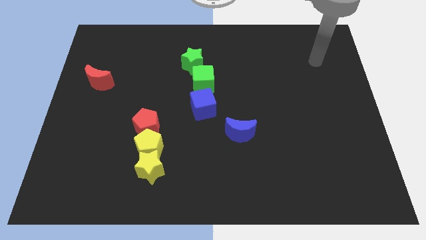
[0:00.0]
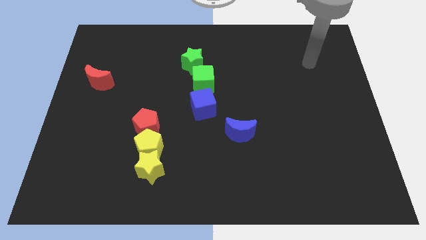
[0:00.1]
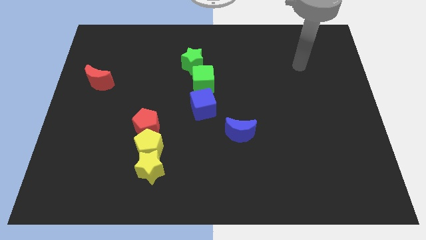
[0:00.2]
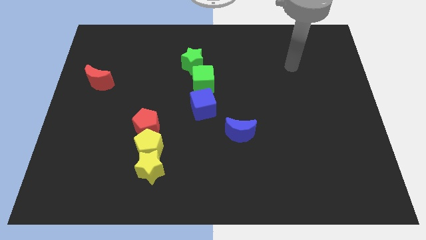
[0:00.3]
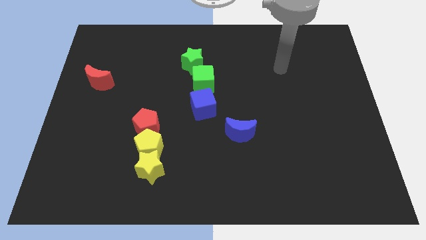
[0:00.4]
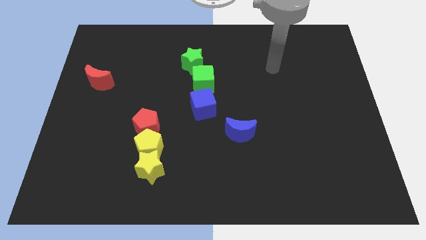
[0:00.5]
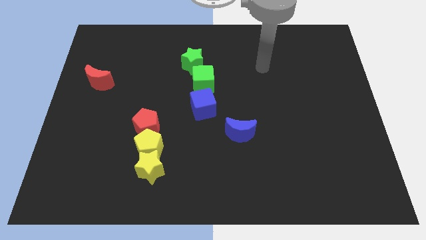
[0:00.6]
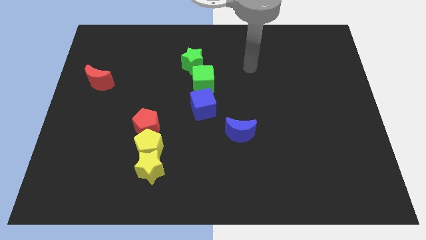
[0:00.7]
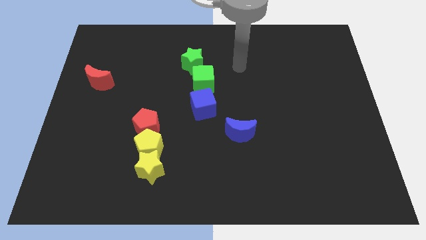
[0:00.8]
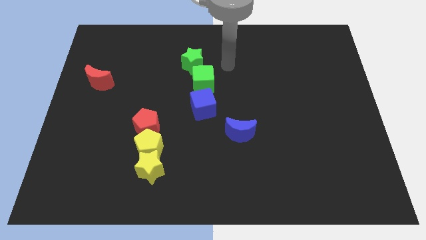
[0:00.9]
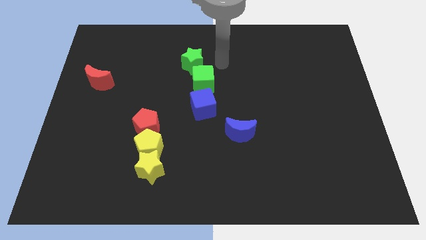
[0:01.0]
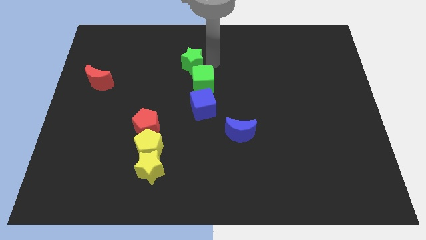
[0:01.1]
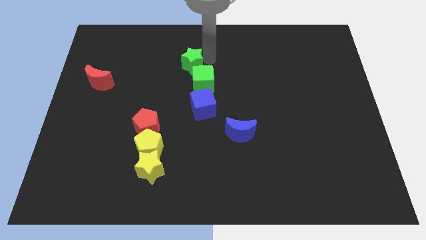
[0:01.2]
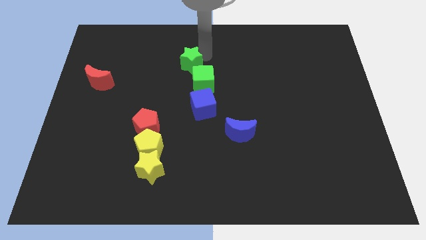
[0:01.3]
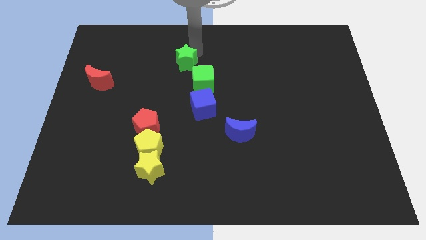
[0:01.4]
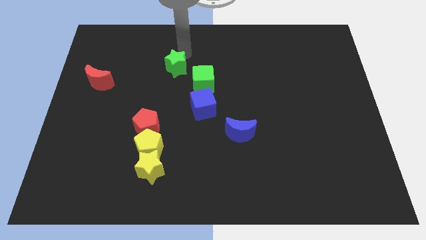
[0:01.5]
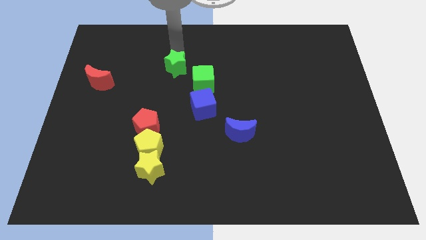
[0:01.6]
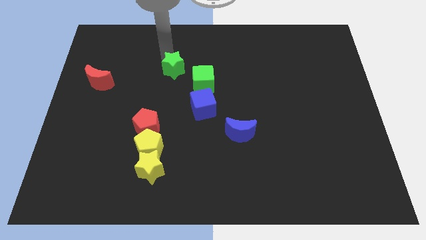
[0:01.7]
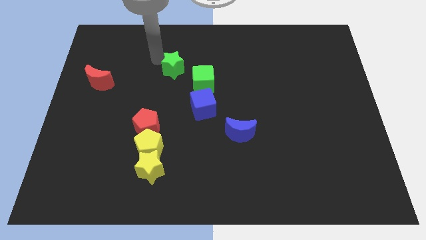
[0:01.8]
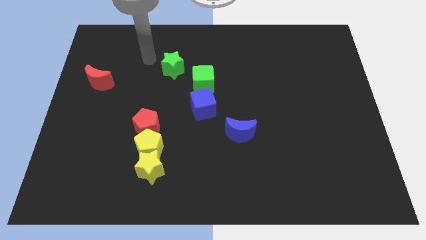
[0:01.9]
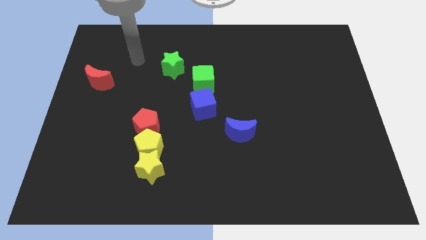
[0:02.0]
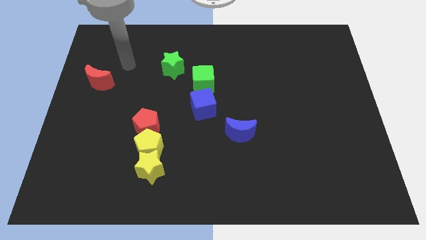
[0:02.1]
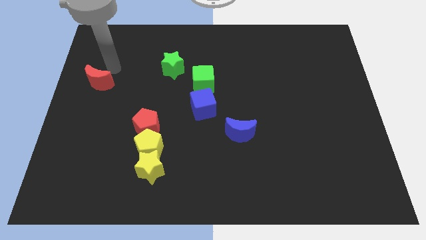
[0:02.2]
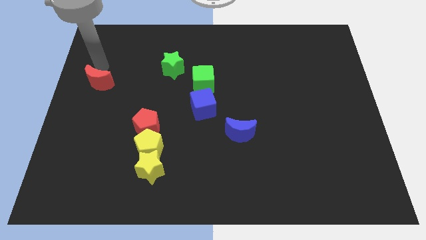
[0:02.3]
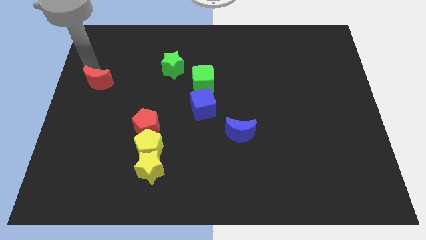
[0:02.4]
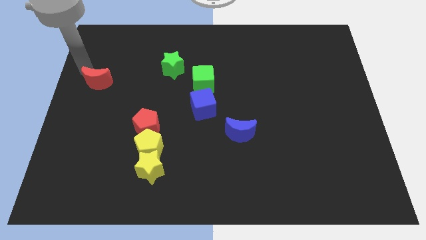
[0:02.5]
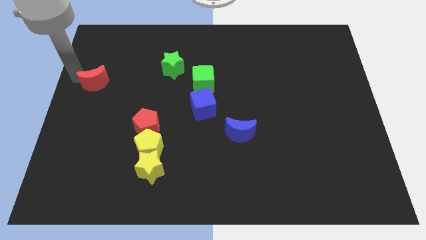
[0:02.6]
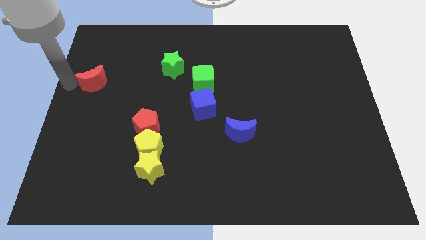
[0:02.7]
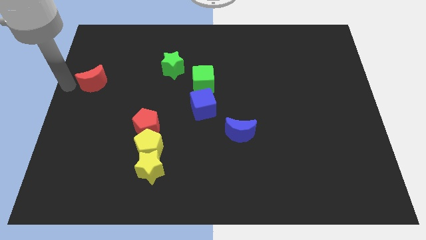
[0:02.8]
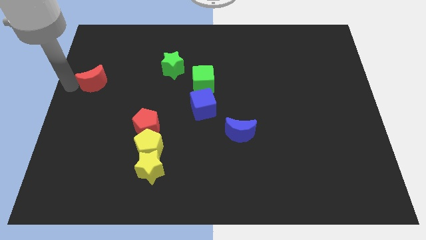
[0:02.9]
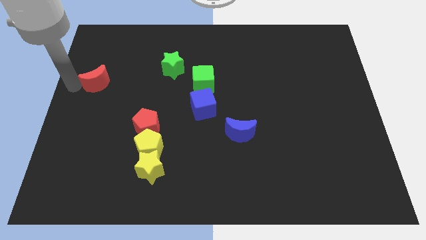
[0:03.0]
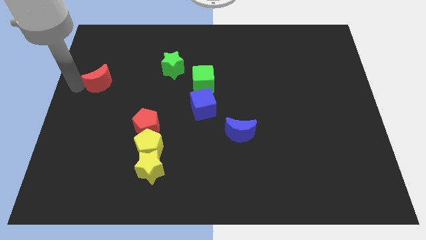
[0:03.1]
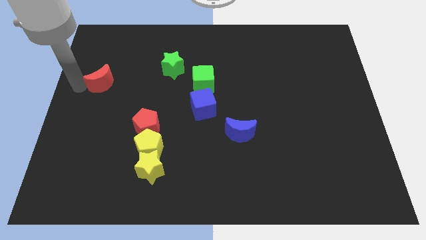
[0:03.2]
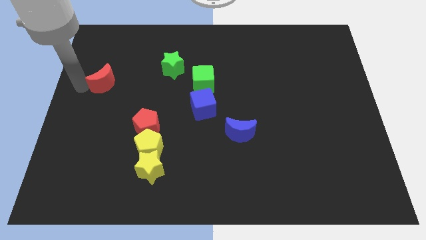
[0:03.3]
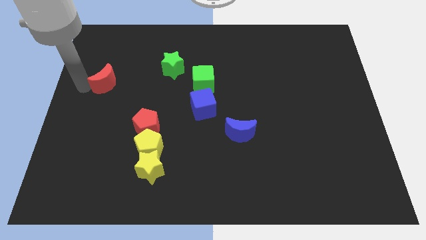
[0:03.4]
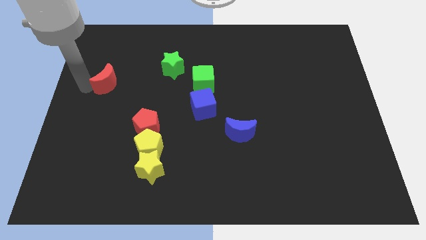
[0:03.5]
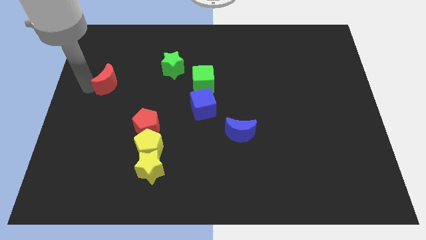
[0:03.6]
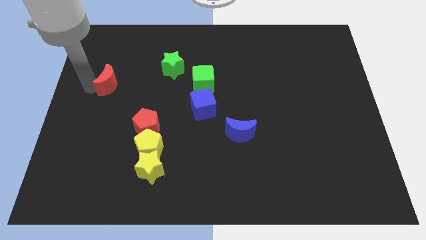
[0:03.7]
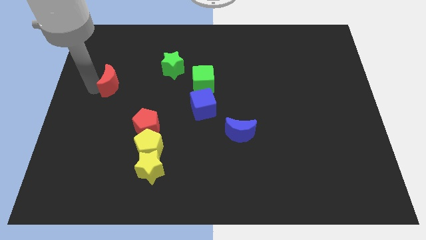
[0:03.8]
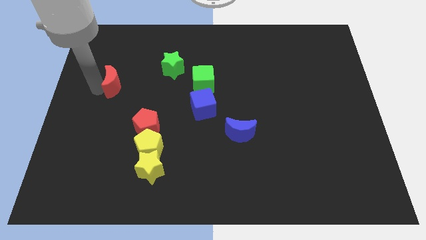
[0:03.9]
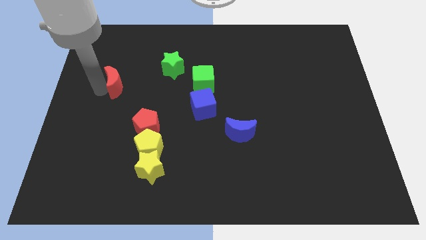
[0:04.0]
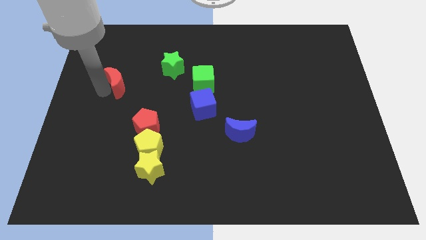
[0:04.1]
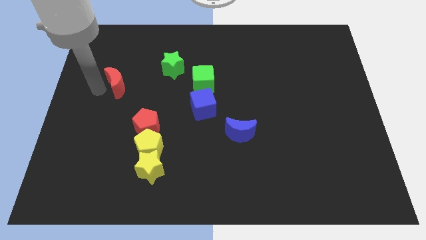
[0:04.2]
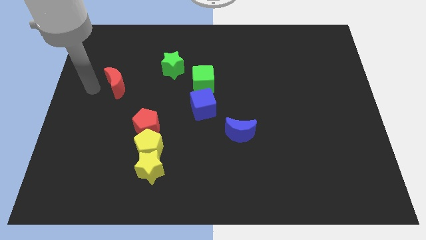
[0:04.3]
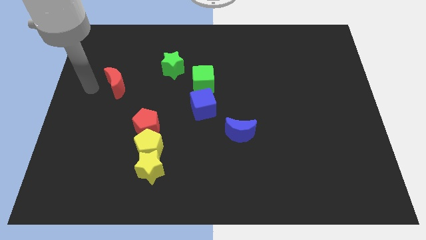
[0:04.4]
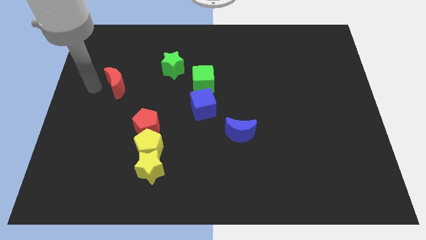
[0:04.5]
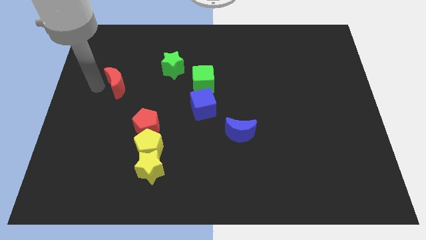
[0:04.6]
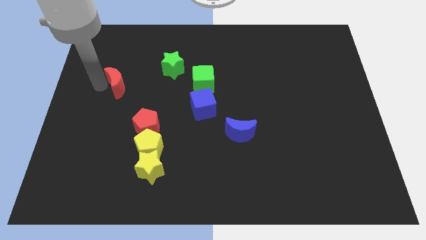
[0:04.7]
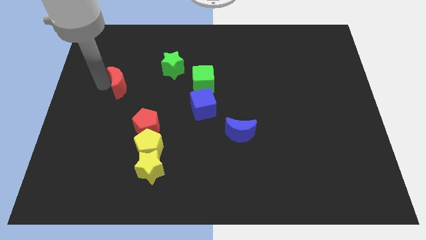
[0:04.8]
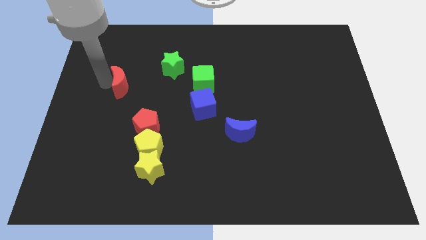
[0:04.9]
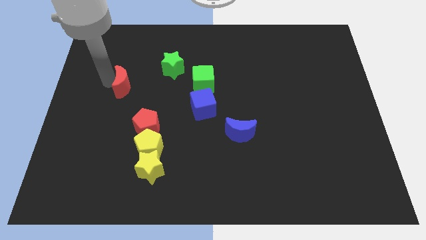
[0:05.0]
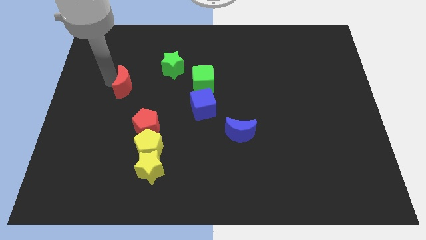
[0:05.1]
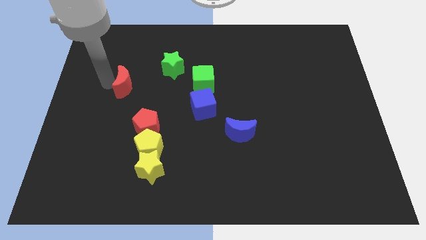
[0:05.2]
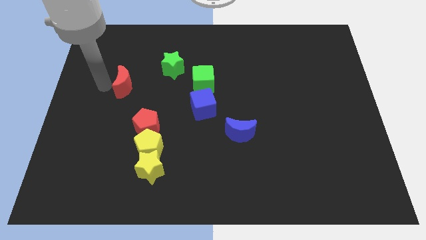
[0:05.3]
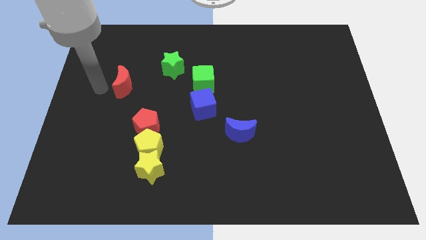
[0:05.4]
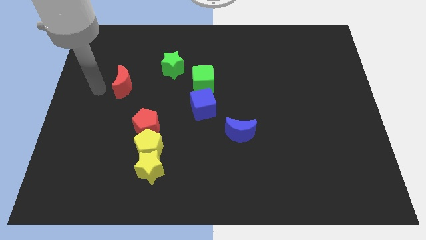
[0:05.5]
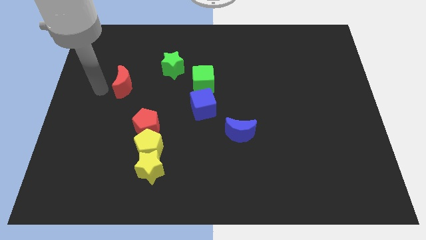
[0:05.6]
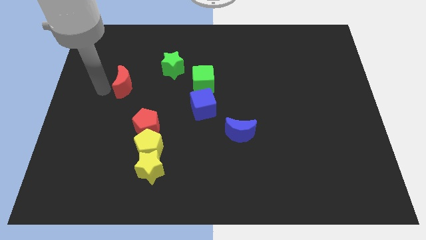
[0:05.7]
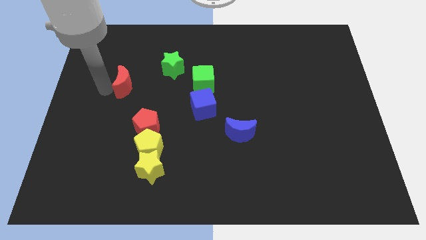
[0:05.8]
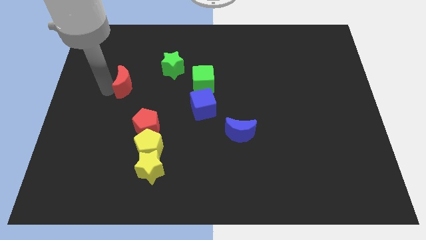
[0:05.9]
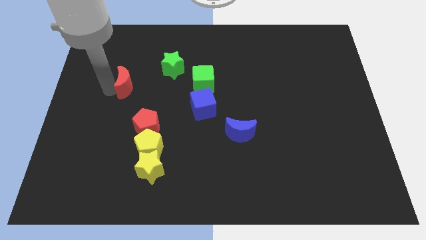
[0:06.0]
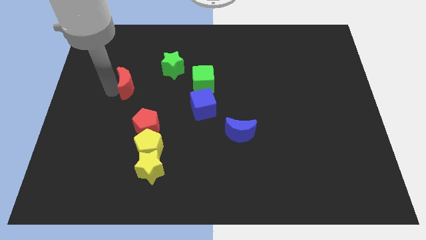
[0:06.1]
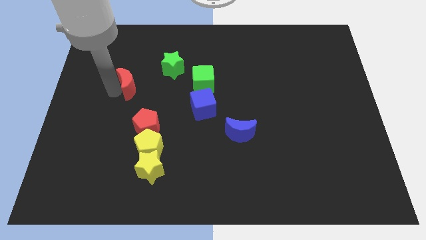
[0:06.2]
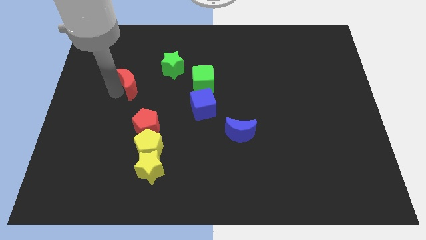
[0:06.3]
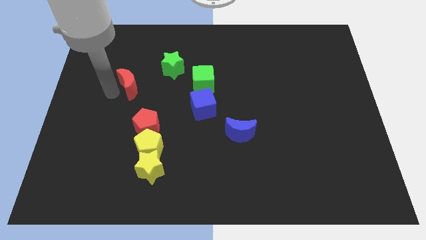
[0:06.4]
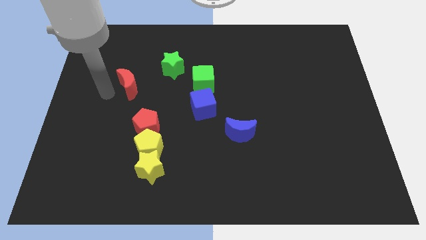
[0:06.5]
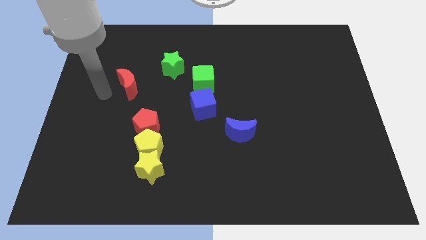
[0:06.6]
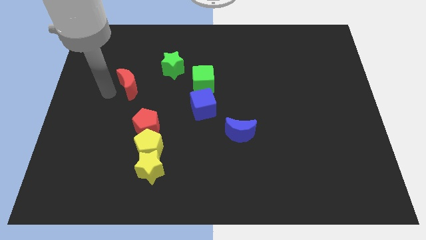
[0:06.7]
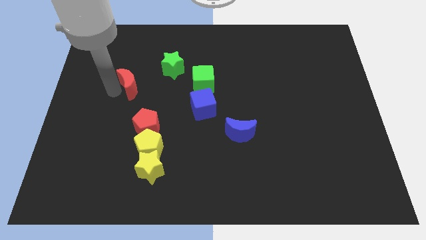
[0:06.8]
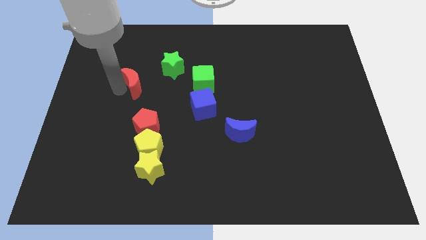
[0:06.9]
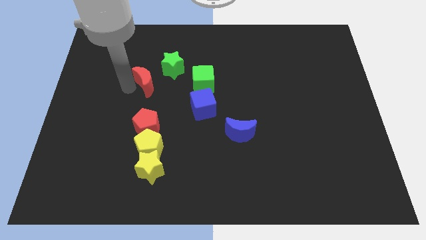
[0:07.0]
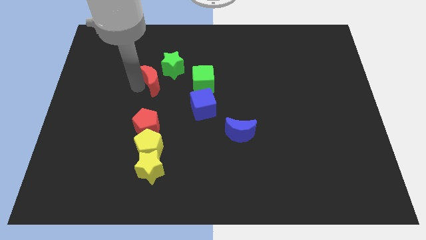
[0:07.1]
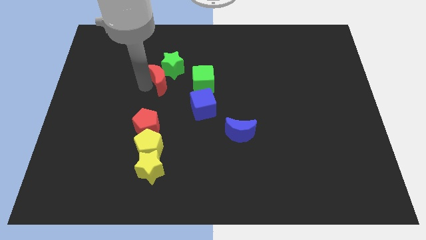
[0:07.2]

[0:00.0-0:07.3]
push the red moon to the green star

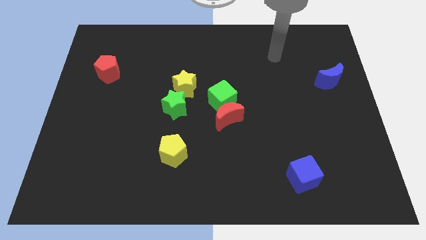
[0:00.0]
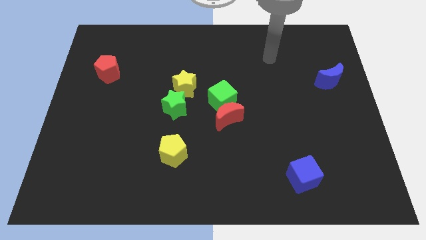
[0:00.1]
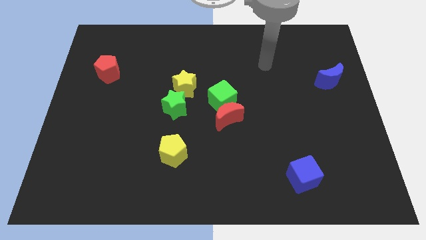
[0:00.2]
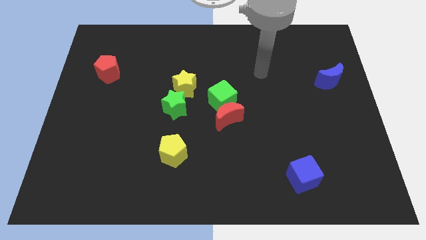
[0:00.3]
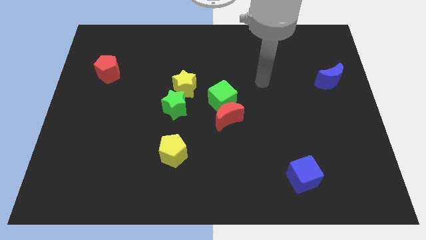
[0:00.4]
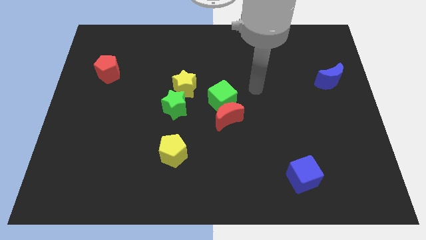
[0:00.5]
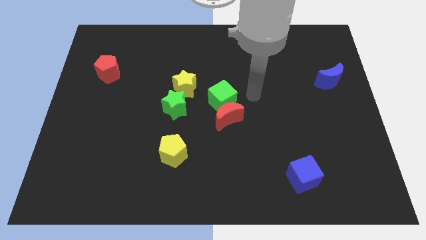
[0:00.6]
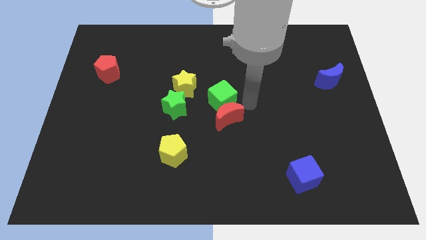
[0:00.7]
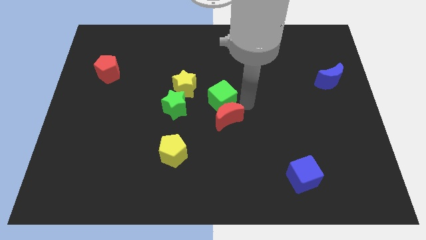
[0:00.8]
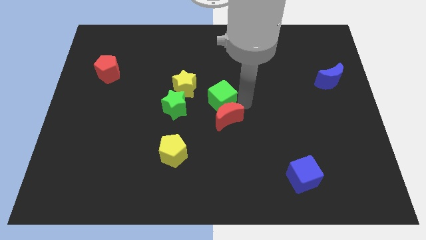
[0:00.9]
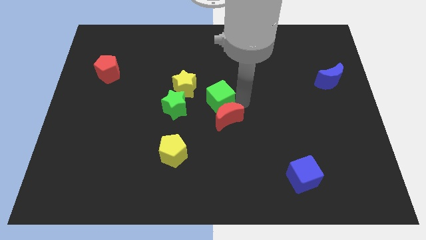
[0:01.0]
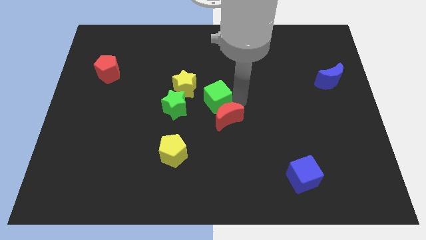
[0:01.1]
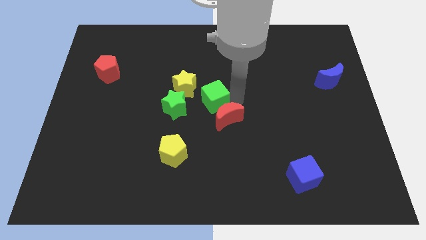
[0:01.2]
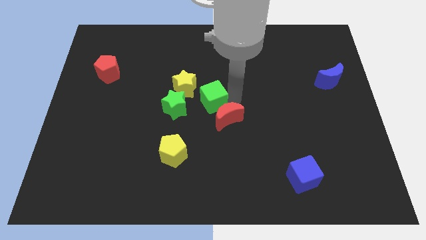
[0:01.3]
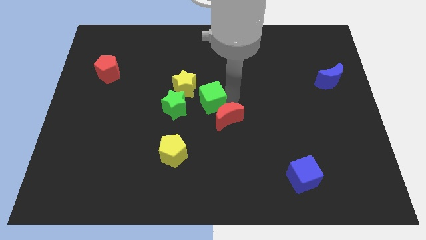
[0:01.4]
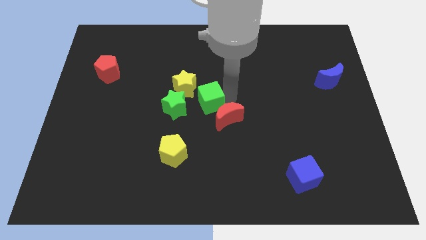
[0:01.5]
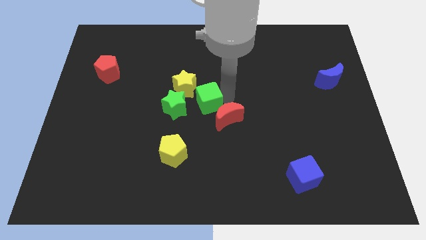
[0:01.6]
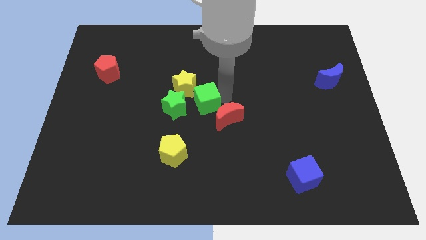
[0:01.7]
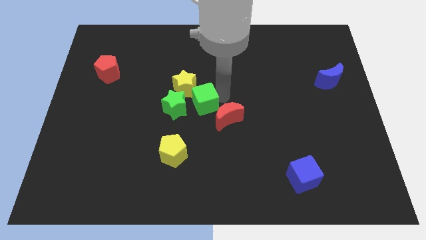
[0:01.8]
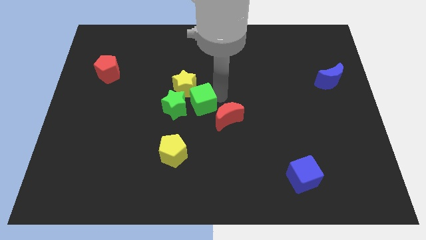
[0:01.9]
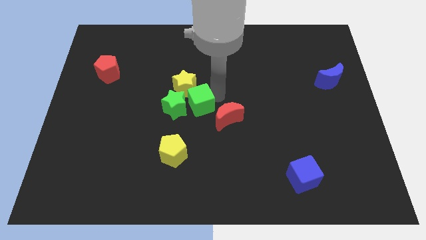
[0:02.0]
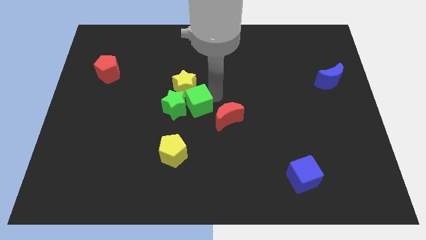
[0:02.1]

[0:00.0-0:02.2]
put the green cube close to the yellow star
